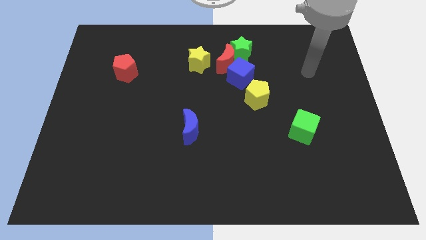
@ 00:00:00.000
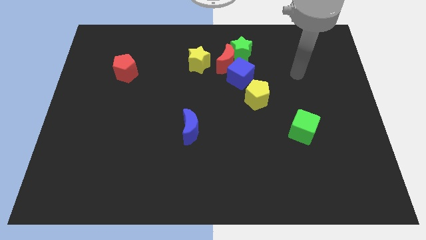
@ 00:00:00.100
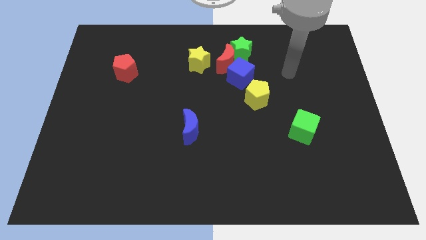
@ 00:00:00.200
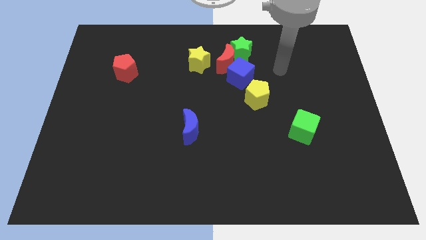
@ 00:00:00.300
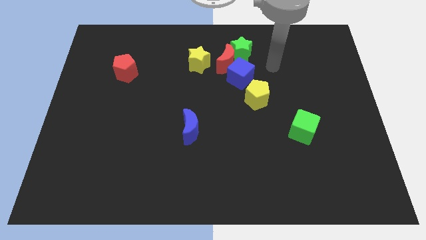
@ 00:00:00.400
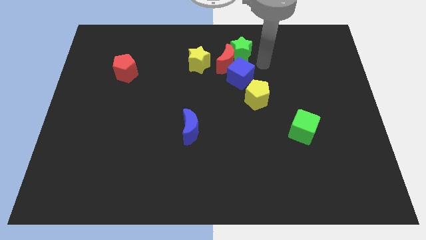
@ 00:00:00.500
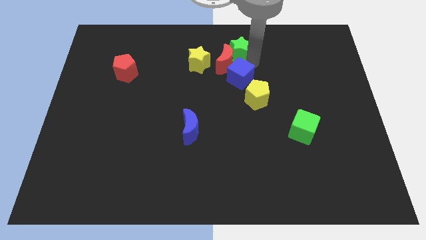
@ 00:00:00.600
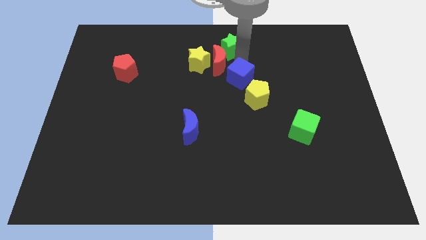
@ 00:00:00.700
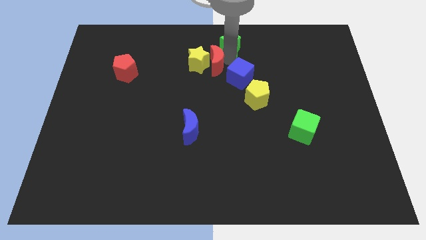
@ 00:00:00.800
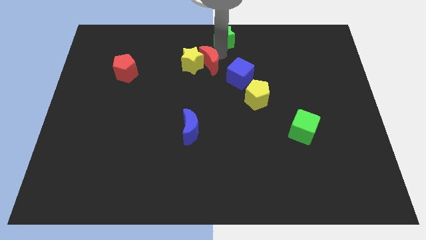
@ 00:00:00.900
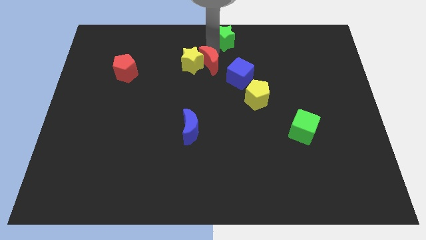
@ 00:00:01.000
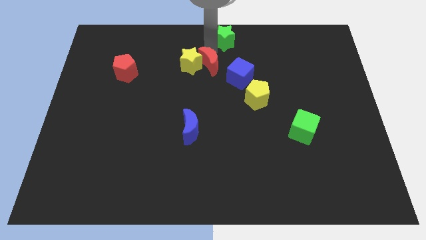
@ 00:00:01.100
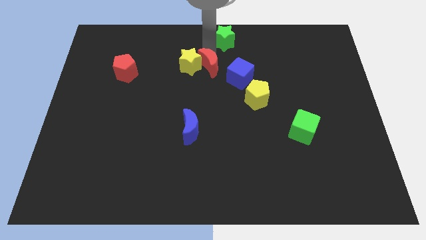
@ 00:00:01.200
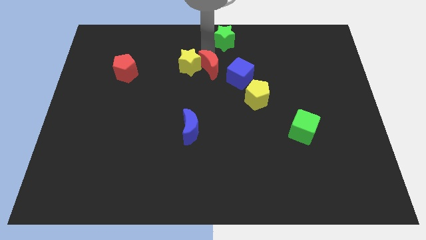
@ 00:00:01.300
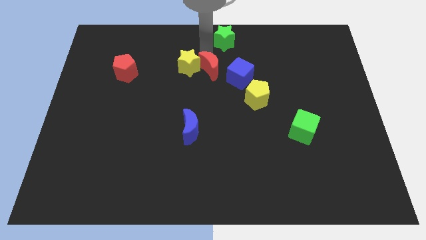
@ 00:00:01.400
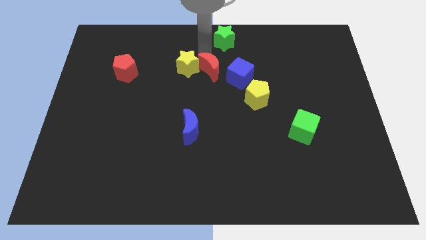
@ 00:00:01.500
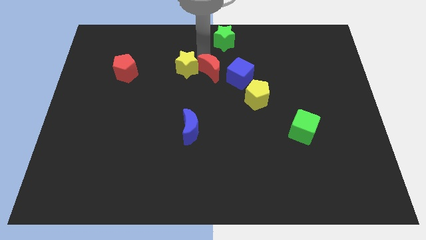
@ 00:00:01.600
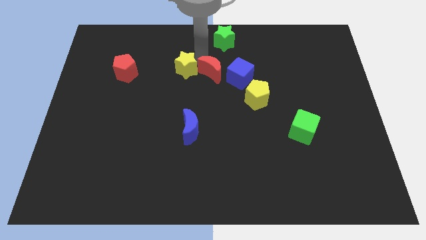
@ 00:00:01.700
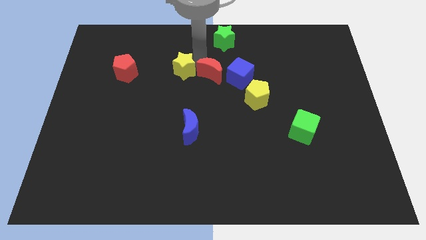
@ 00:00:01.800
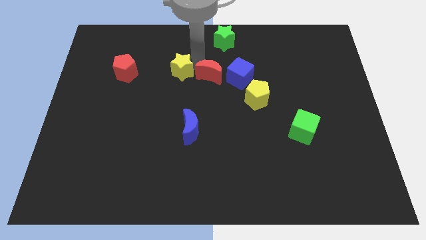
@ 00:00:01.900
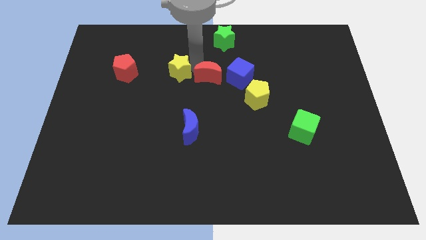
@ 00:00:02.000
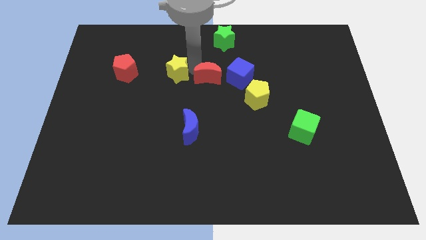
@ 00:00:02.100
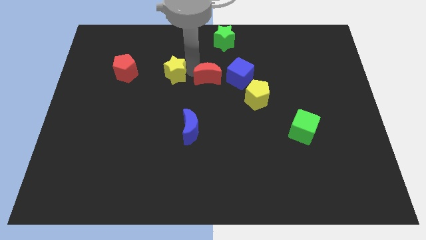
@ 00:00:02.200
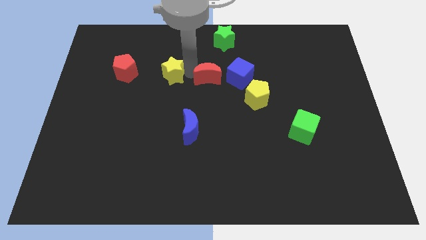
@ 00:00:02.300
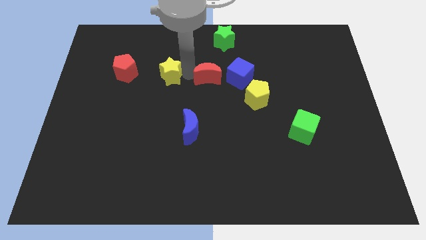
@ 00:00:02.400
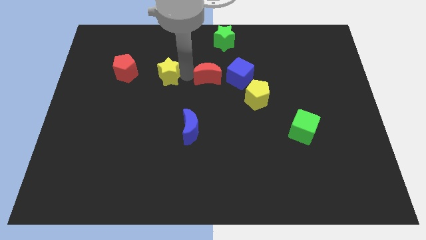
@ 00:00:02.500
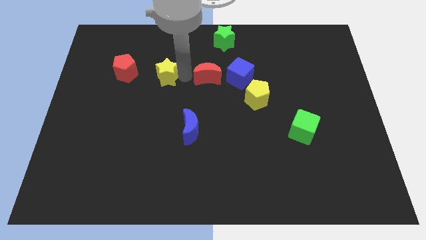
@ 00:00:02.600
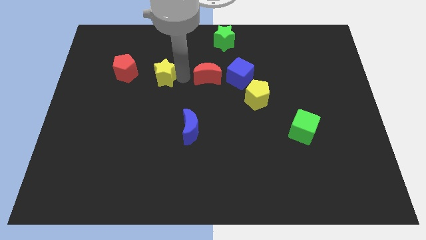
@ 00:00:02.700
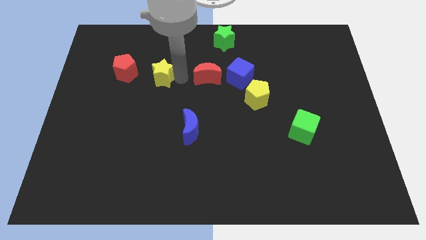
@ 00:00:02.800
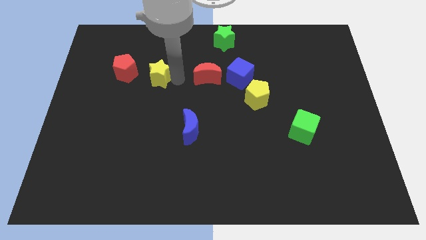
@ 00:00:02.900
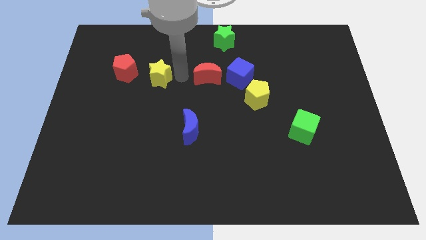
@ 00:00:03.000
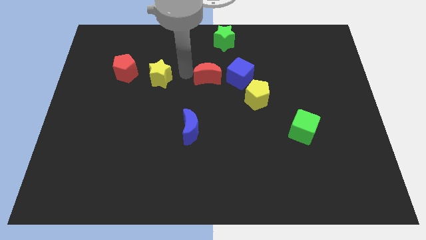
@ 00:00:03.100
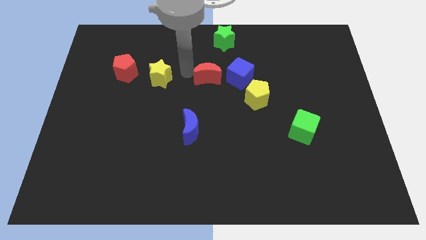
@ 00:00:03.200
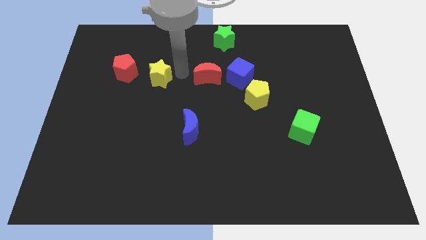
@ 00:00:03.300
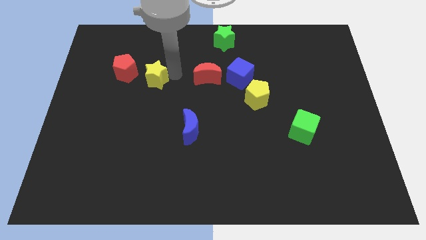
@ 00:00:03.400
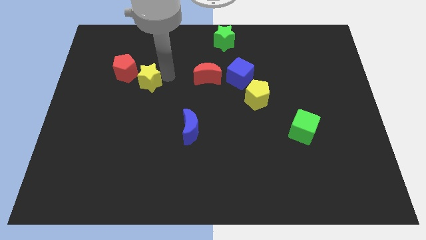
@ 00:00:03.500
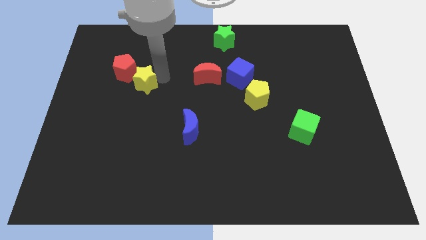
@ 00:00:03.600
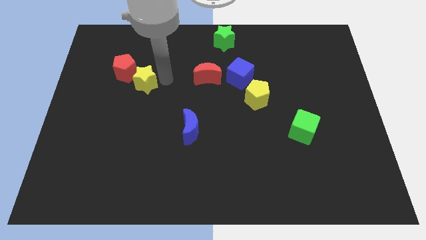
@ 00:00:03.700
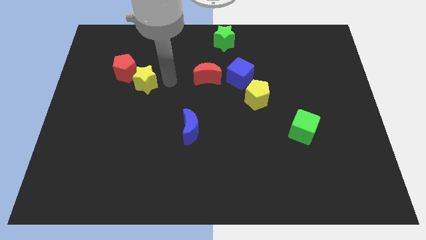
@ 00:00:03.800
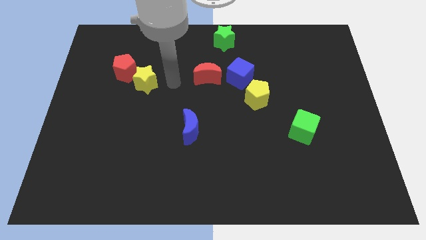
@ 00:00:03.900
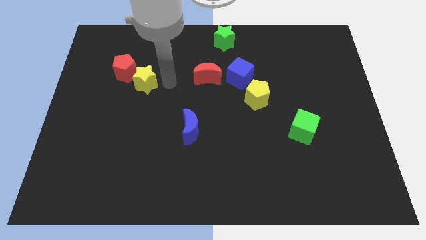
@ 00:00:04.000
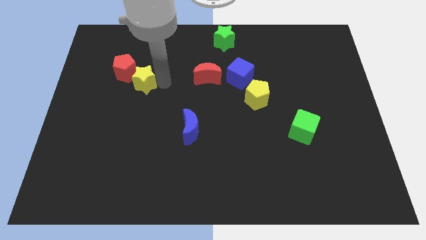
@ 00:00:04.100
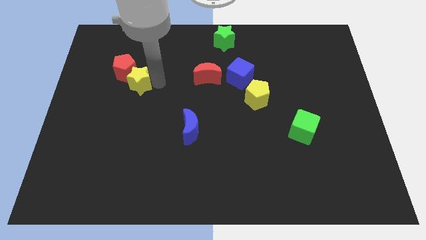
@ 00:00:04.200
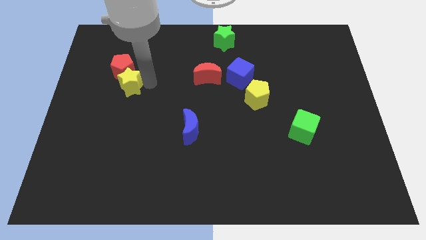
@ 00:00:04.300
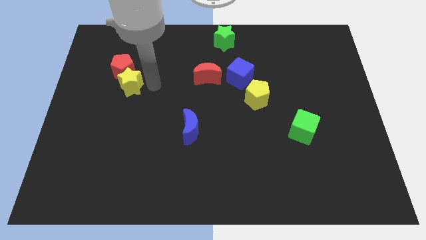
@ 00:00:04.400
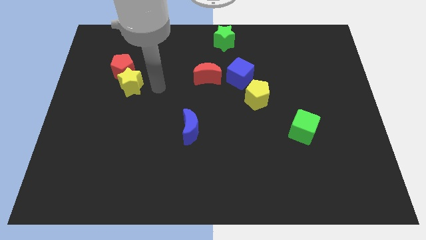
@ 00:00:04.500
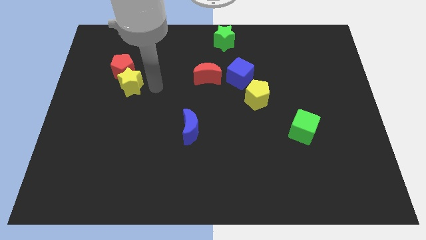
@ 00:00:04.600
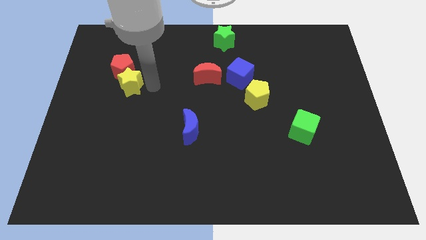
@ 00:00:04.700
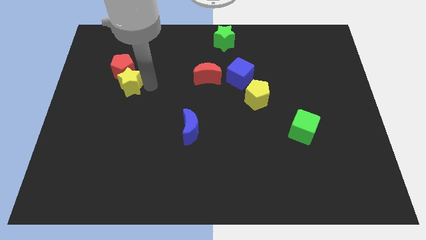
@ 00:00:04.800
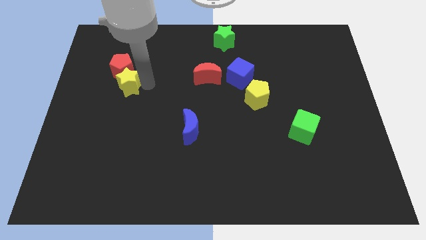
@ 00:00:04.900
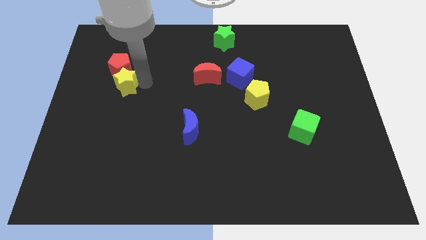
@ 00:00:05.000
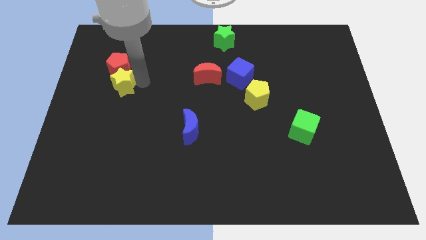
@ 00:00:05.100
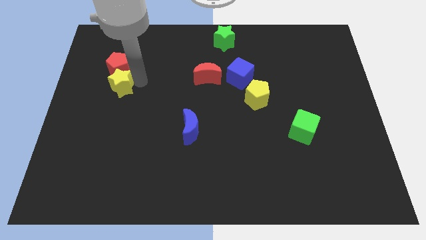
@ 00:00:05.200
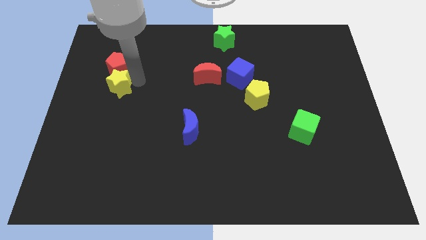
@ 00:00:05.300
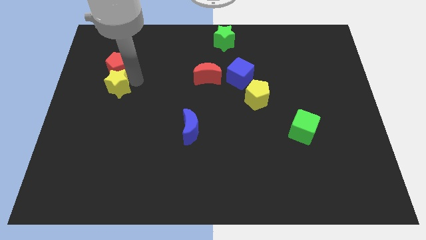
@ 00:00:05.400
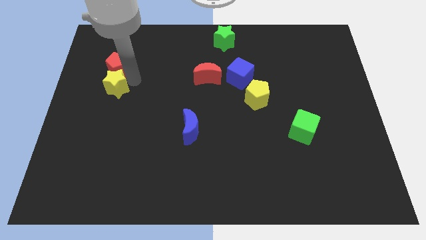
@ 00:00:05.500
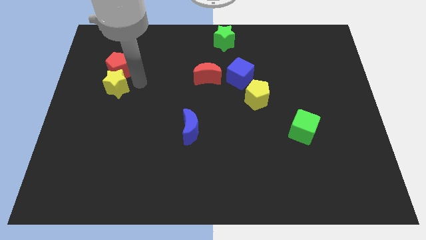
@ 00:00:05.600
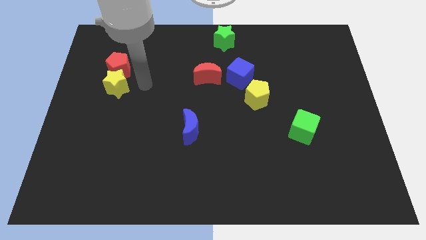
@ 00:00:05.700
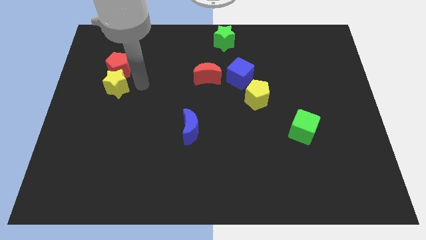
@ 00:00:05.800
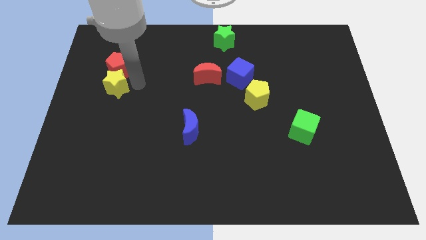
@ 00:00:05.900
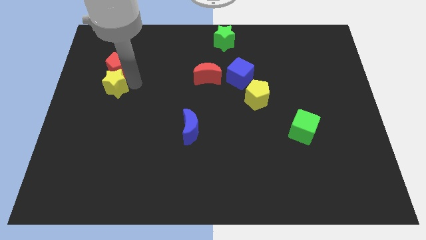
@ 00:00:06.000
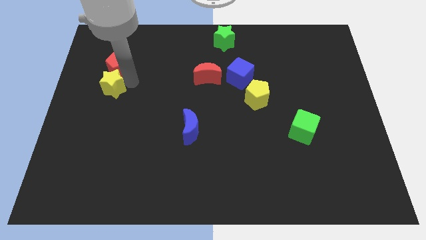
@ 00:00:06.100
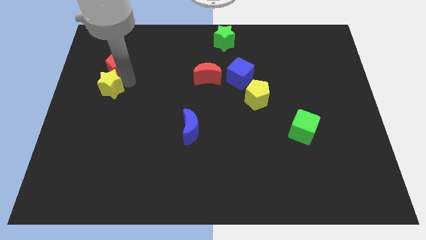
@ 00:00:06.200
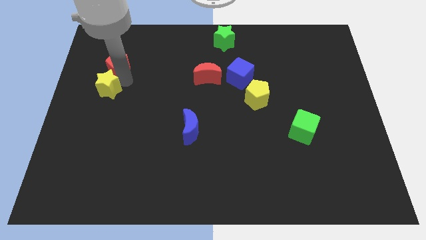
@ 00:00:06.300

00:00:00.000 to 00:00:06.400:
put the yellow star to the left side of the board
